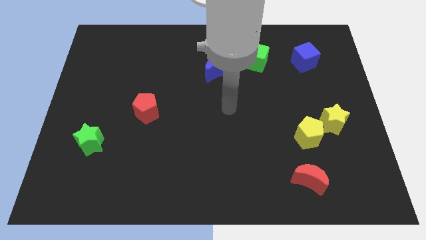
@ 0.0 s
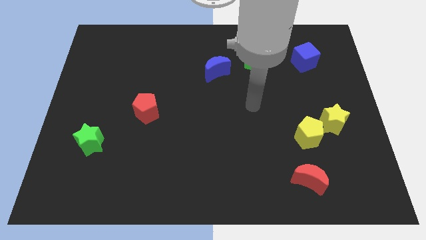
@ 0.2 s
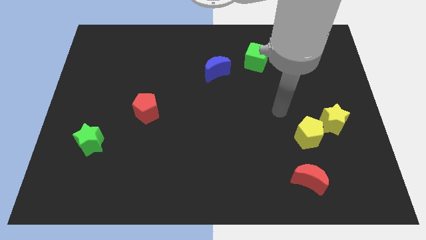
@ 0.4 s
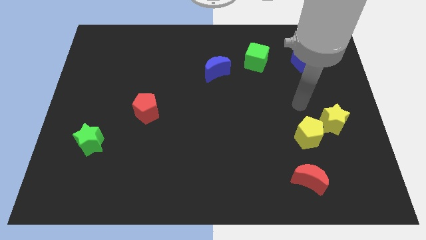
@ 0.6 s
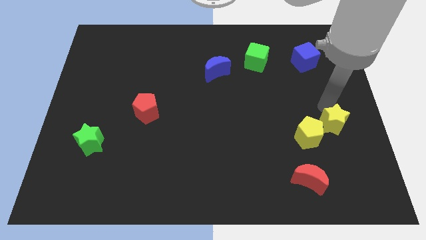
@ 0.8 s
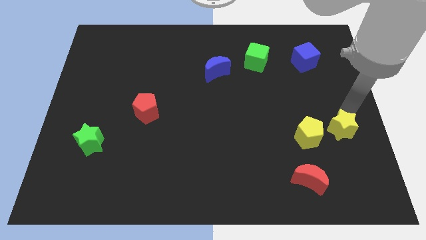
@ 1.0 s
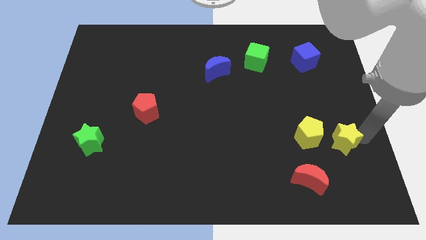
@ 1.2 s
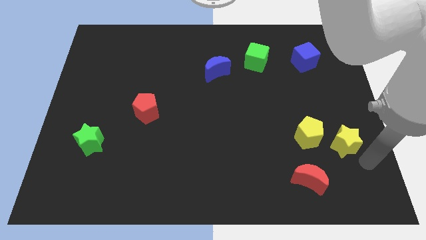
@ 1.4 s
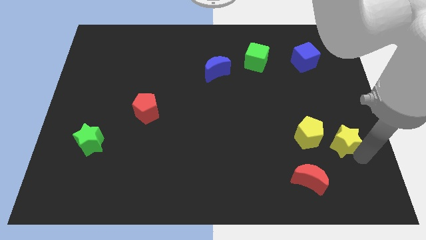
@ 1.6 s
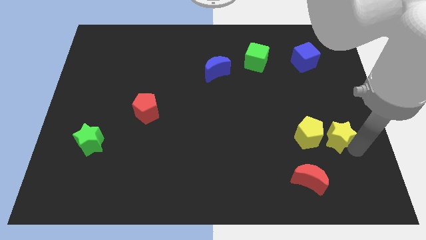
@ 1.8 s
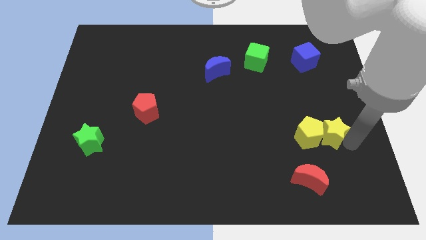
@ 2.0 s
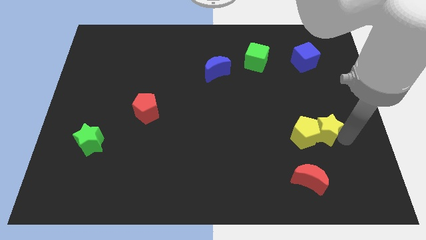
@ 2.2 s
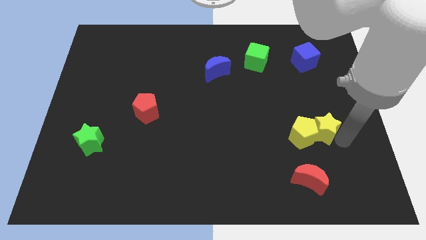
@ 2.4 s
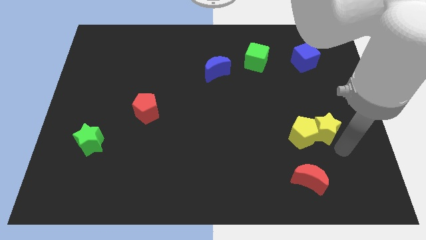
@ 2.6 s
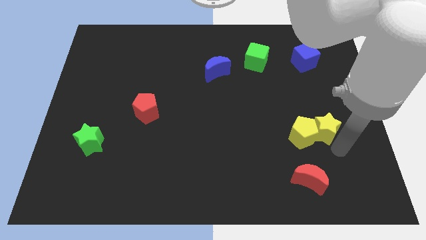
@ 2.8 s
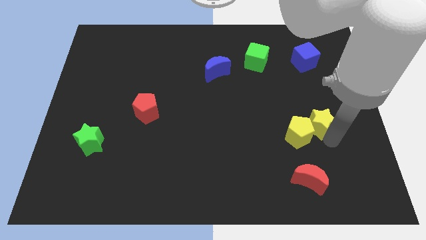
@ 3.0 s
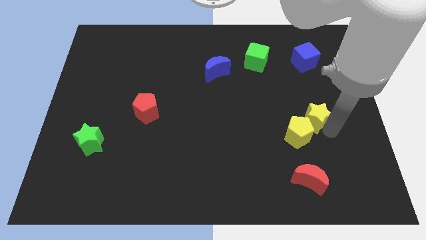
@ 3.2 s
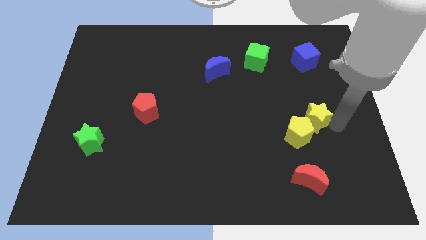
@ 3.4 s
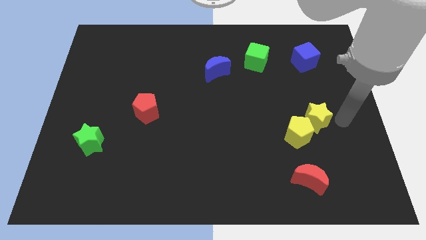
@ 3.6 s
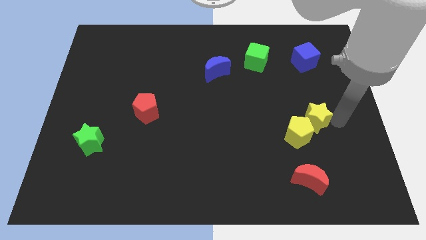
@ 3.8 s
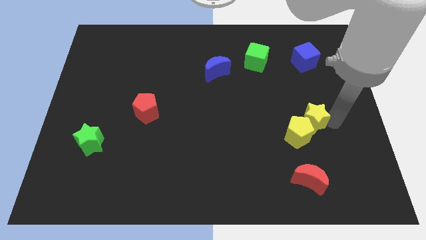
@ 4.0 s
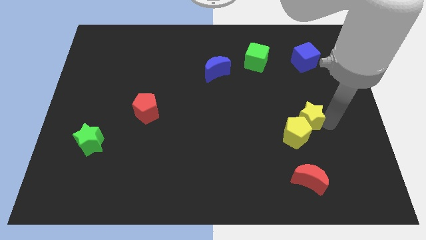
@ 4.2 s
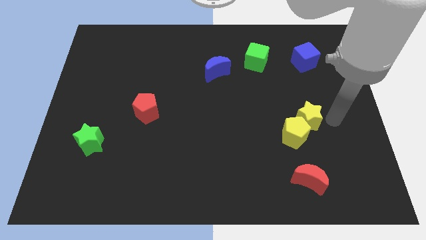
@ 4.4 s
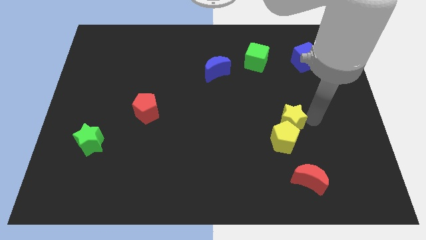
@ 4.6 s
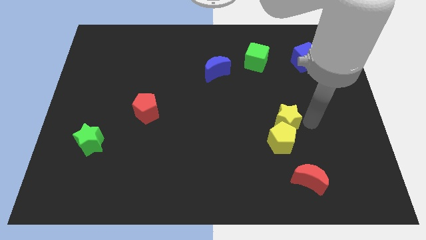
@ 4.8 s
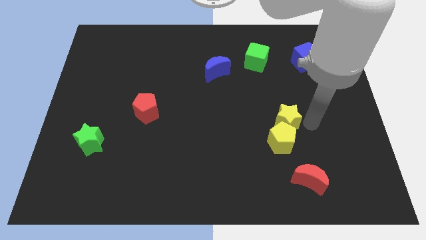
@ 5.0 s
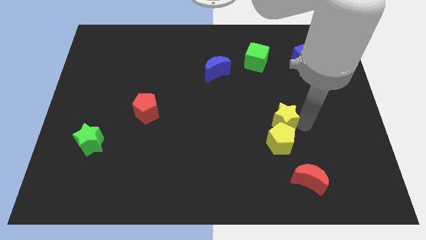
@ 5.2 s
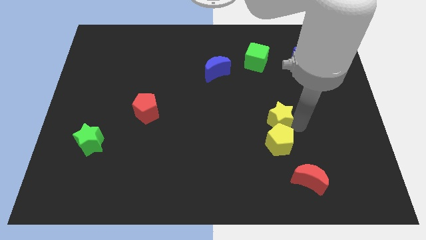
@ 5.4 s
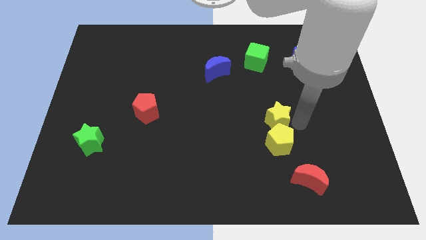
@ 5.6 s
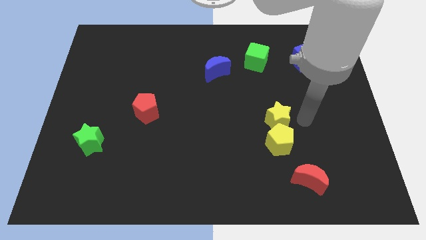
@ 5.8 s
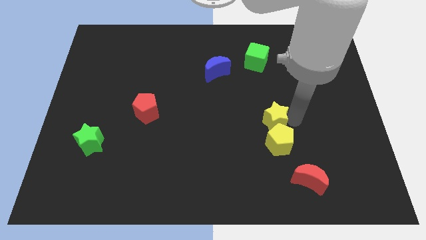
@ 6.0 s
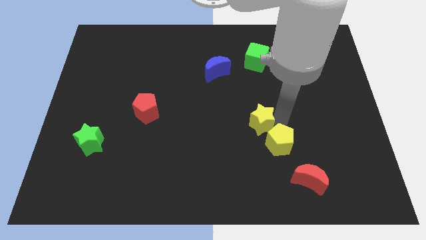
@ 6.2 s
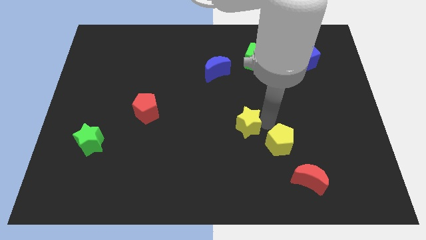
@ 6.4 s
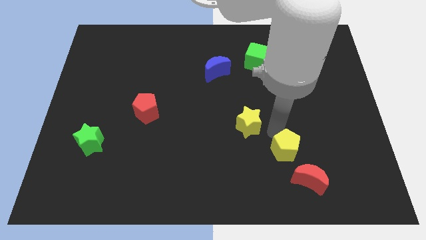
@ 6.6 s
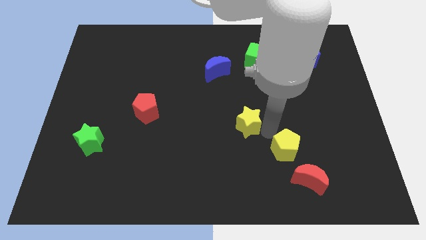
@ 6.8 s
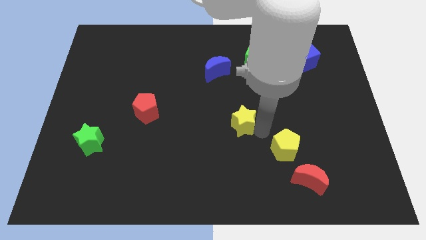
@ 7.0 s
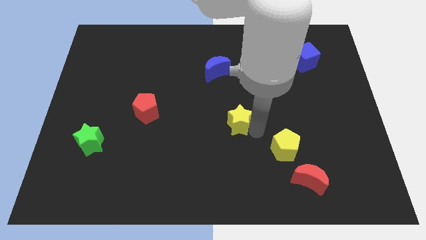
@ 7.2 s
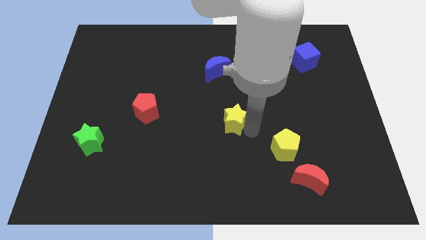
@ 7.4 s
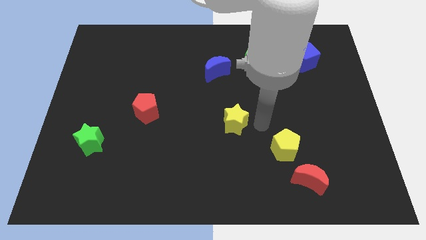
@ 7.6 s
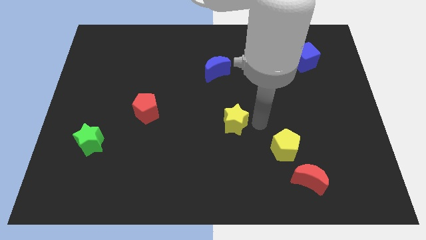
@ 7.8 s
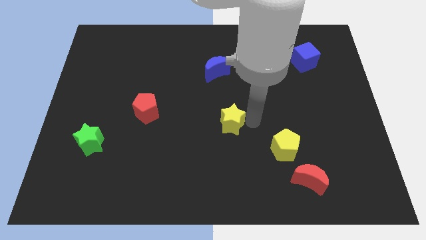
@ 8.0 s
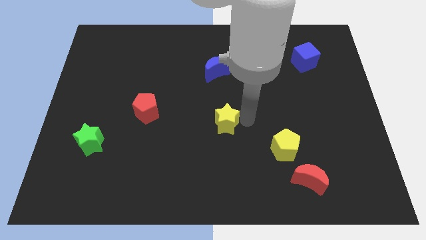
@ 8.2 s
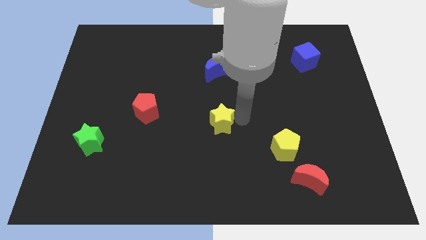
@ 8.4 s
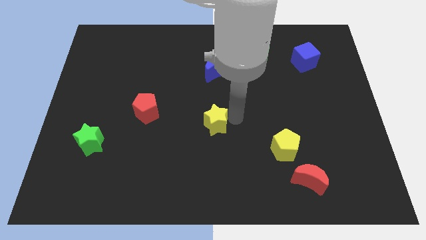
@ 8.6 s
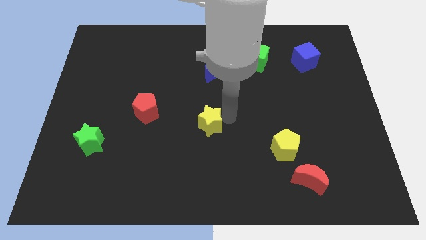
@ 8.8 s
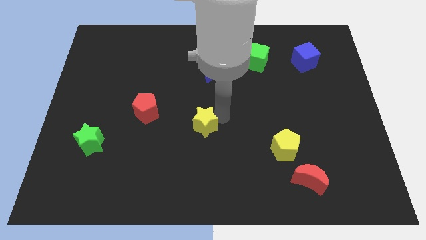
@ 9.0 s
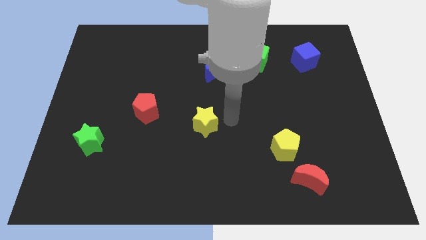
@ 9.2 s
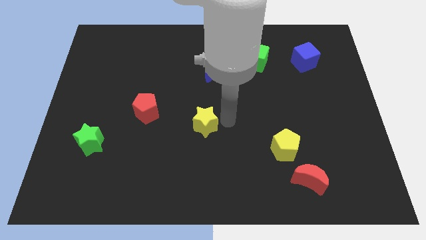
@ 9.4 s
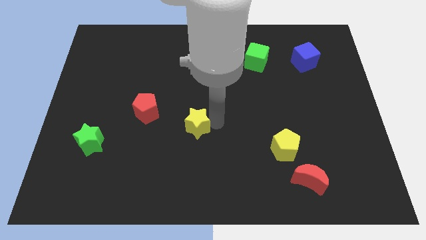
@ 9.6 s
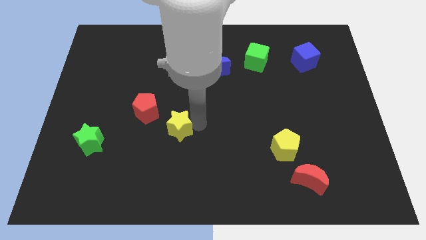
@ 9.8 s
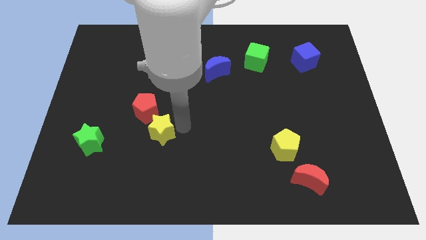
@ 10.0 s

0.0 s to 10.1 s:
move the yellow star right of the green star

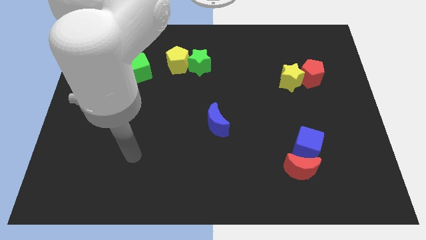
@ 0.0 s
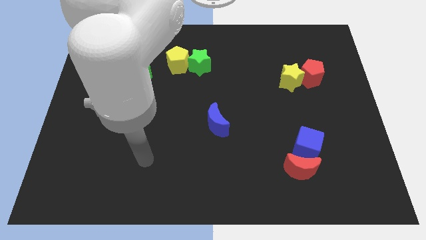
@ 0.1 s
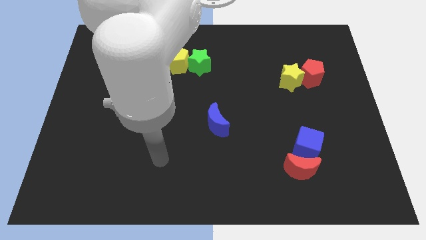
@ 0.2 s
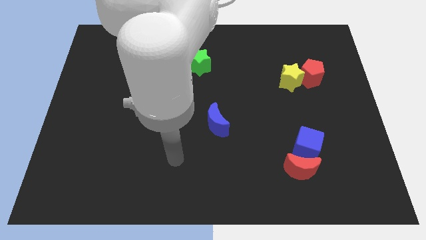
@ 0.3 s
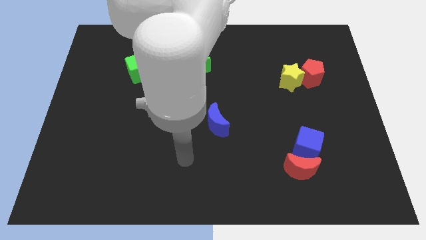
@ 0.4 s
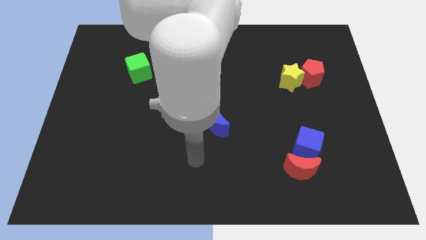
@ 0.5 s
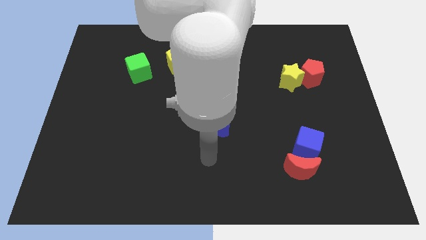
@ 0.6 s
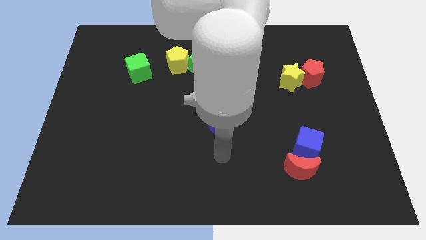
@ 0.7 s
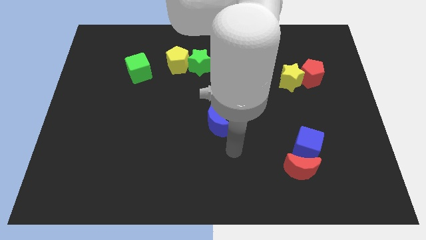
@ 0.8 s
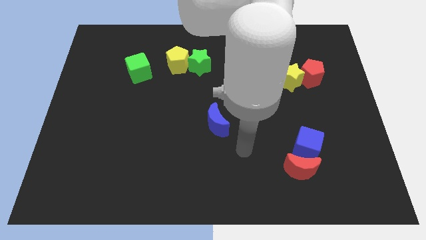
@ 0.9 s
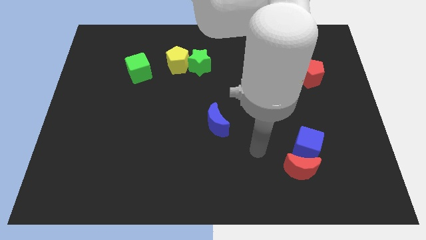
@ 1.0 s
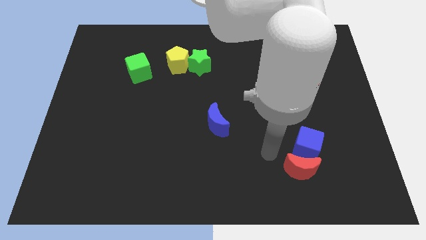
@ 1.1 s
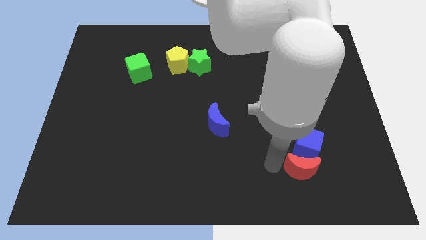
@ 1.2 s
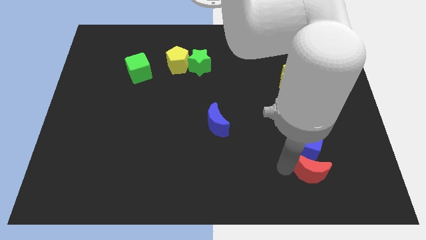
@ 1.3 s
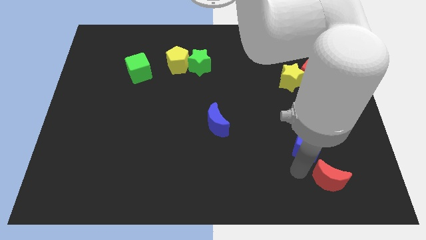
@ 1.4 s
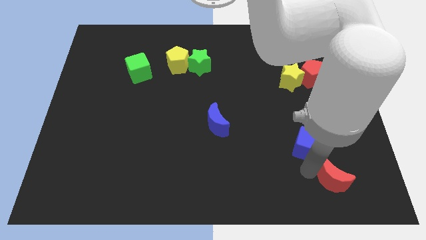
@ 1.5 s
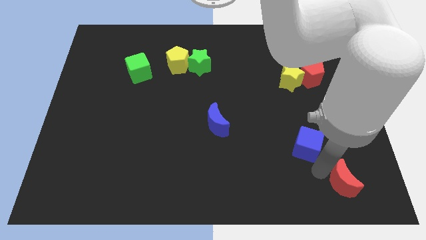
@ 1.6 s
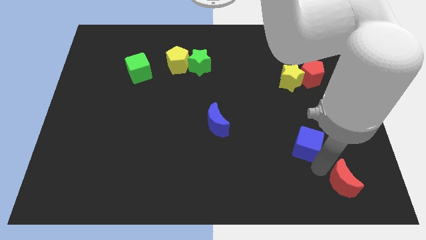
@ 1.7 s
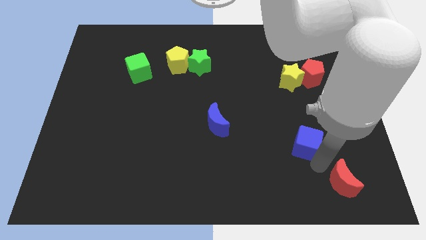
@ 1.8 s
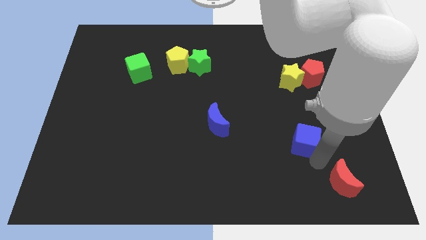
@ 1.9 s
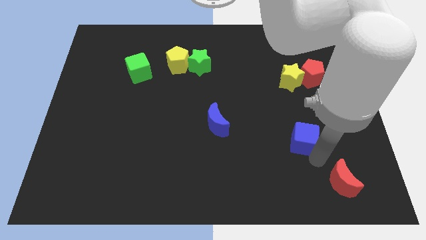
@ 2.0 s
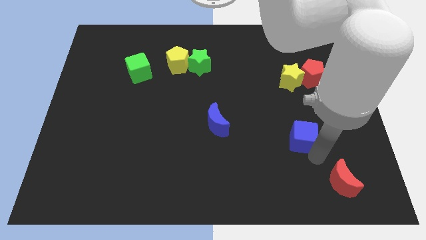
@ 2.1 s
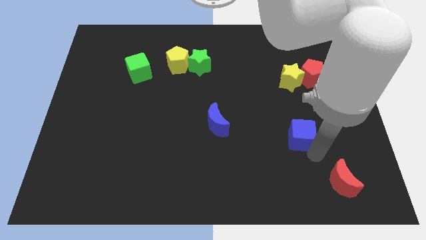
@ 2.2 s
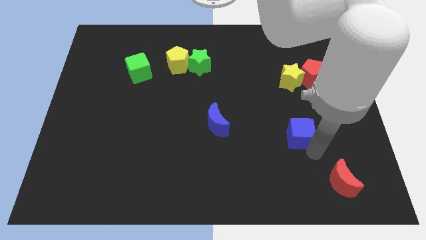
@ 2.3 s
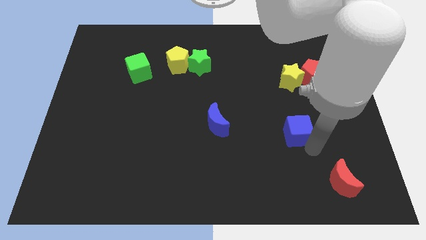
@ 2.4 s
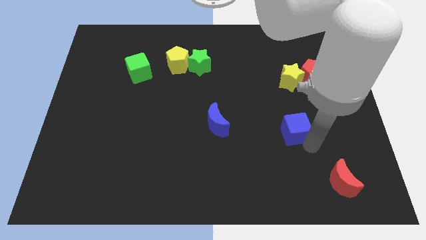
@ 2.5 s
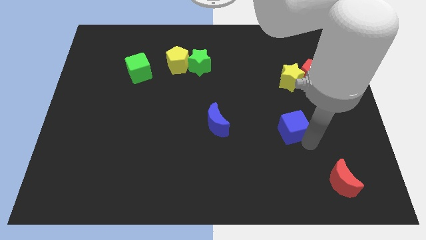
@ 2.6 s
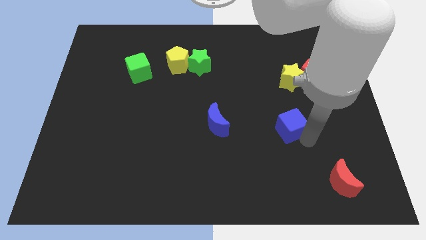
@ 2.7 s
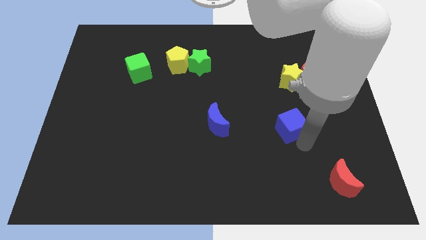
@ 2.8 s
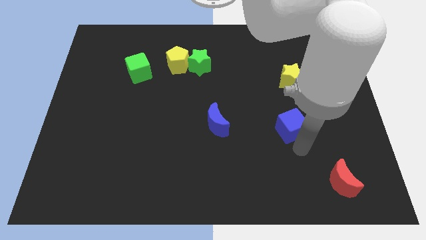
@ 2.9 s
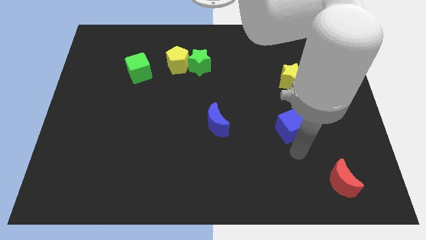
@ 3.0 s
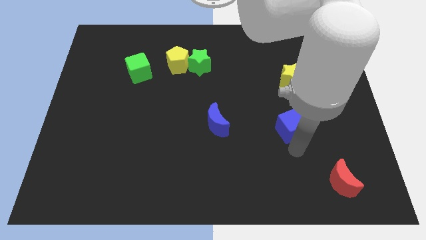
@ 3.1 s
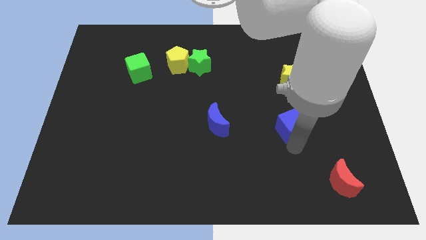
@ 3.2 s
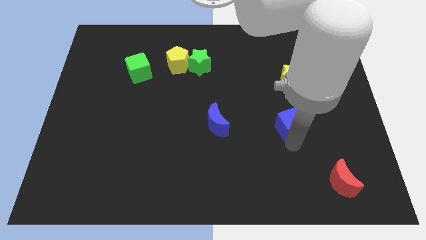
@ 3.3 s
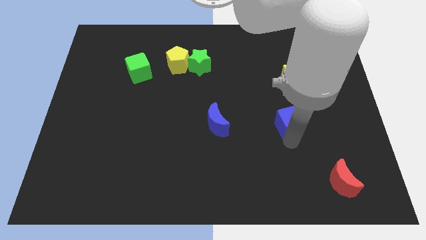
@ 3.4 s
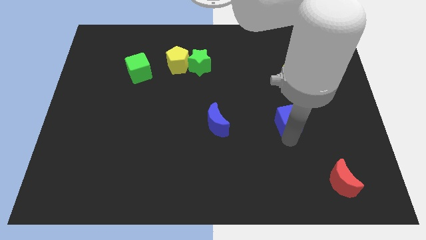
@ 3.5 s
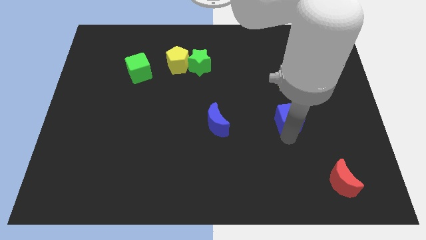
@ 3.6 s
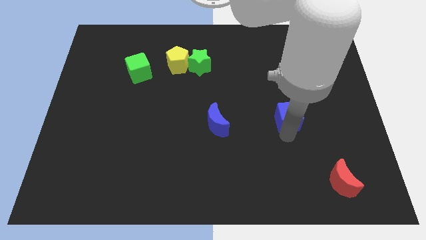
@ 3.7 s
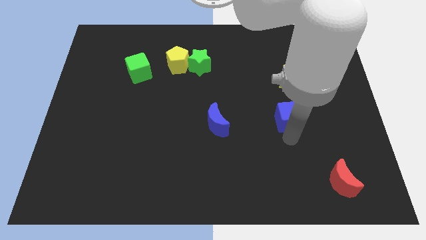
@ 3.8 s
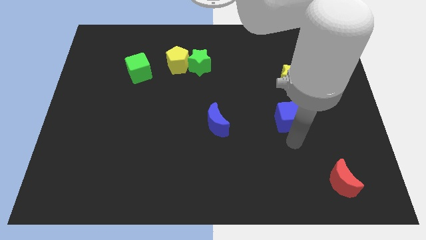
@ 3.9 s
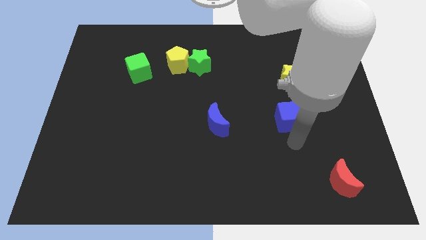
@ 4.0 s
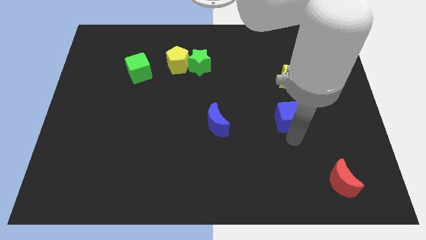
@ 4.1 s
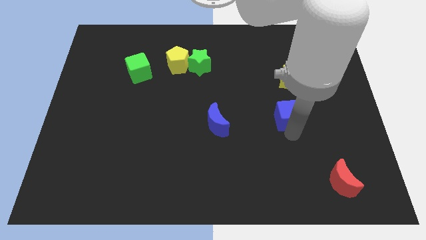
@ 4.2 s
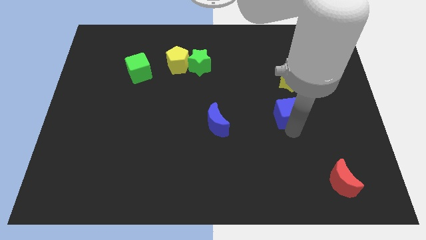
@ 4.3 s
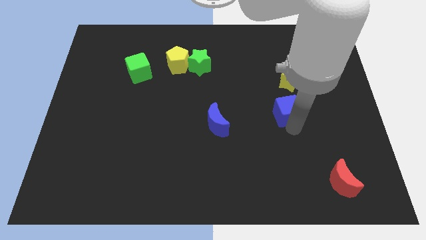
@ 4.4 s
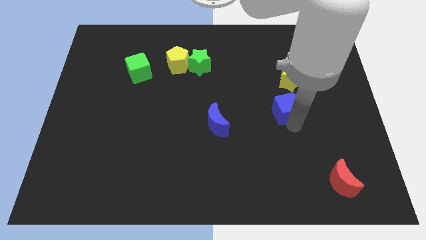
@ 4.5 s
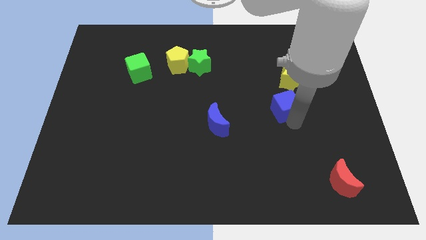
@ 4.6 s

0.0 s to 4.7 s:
push the blue cube to the bottom left of the yellow star
